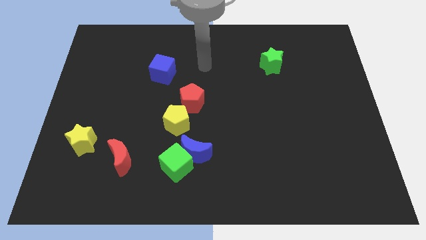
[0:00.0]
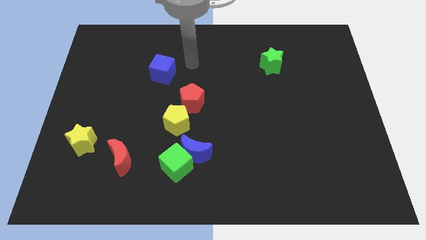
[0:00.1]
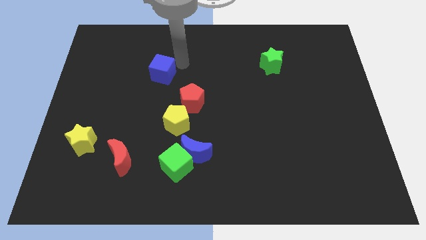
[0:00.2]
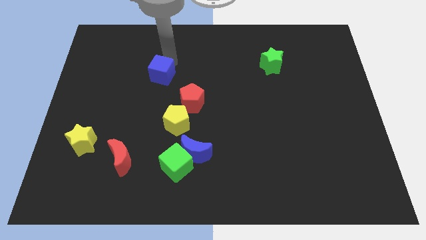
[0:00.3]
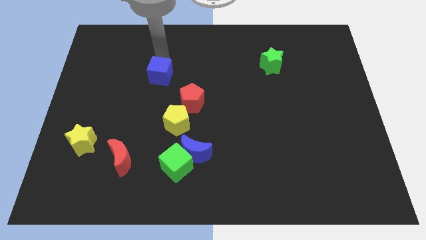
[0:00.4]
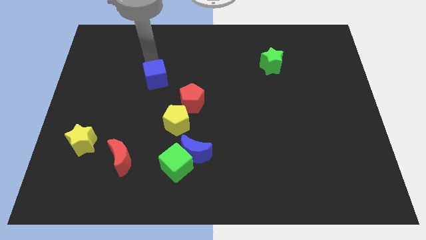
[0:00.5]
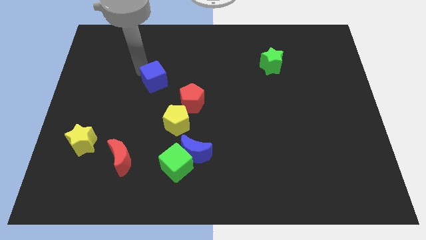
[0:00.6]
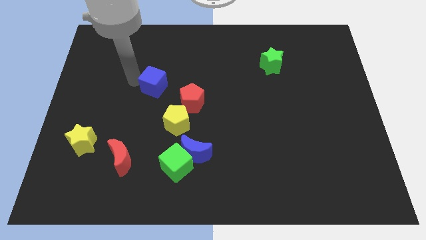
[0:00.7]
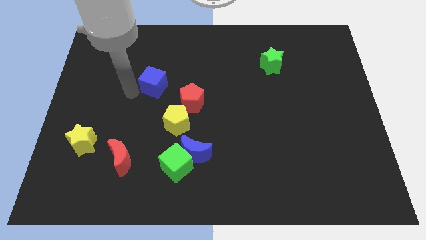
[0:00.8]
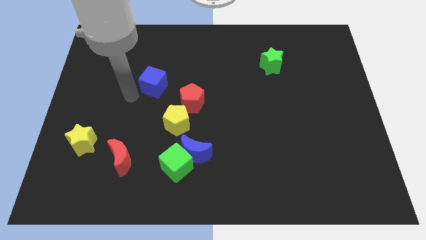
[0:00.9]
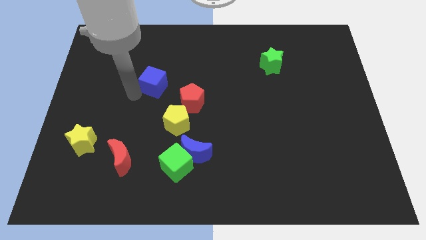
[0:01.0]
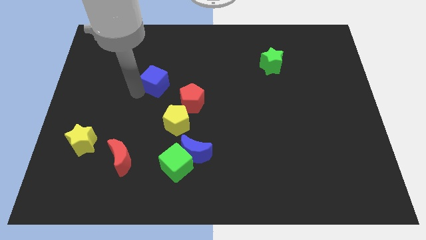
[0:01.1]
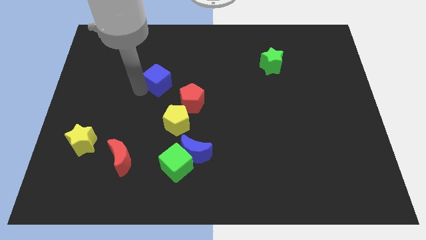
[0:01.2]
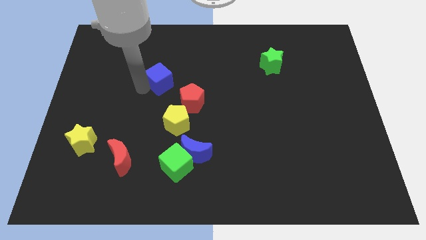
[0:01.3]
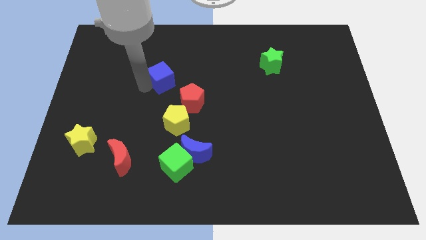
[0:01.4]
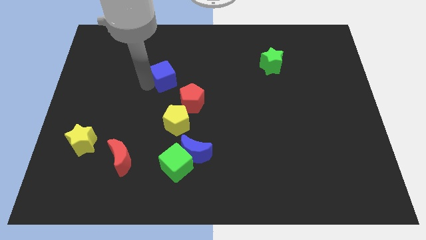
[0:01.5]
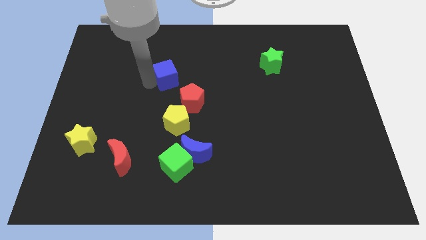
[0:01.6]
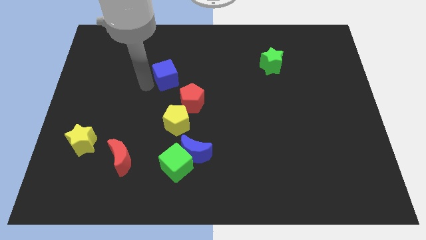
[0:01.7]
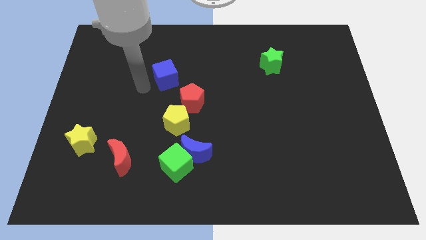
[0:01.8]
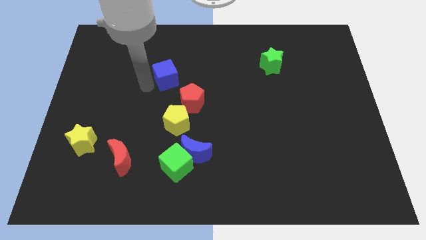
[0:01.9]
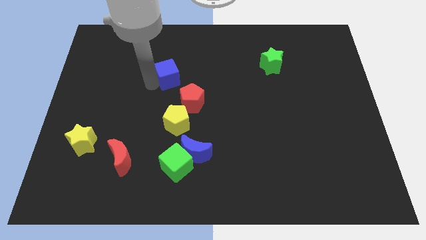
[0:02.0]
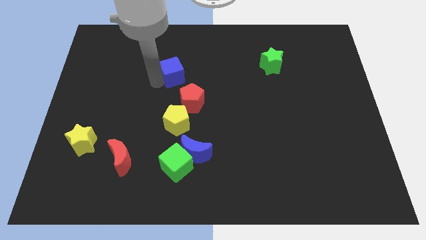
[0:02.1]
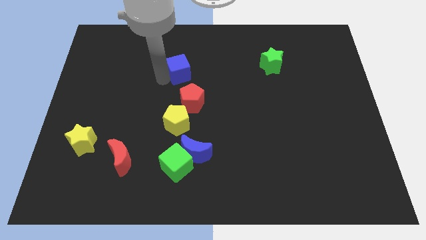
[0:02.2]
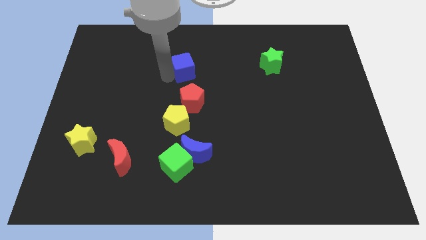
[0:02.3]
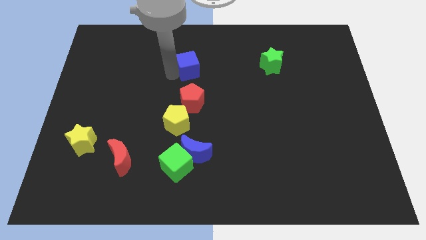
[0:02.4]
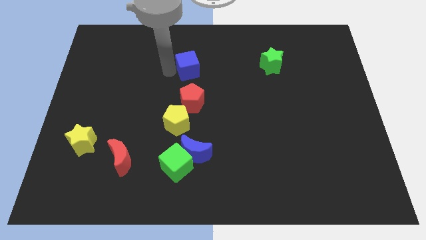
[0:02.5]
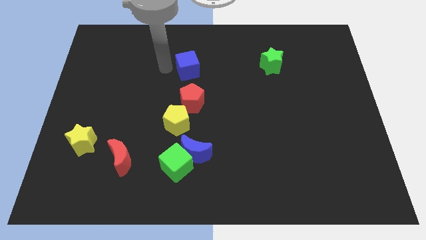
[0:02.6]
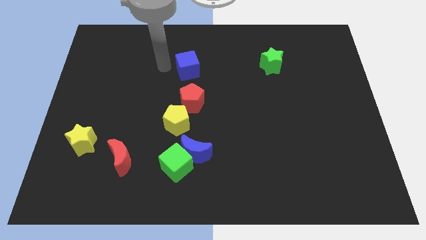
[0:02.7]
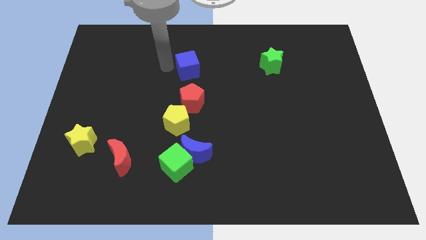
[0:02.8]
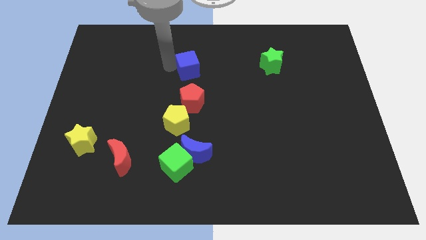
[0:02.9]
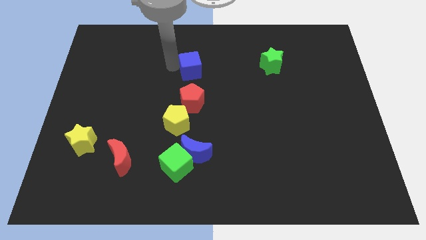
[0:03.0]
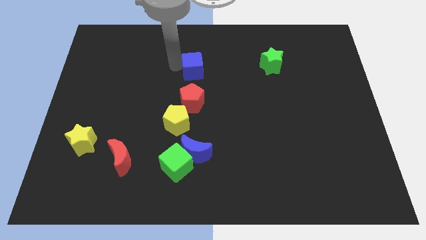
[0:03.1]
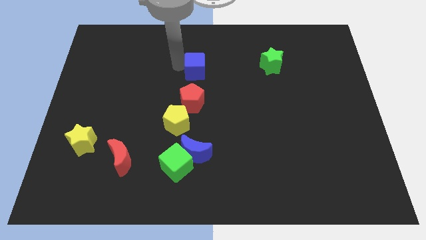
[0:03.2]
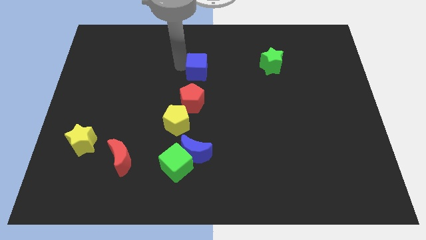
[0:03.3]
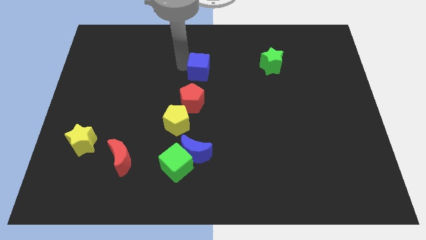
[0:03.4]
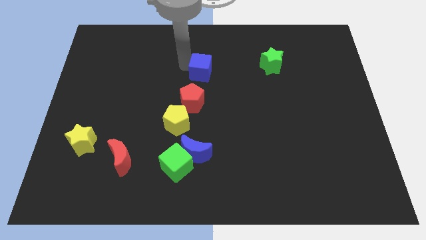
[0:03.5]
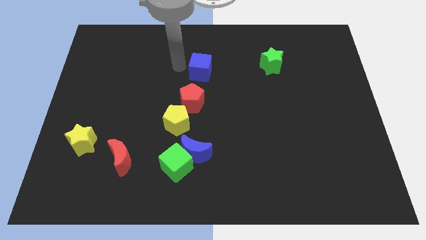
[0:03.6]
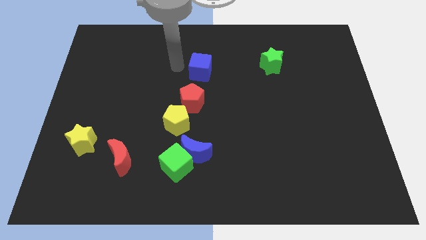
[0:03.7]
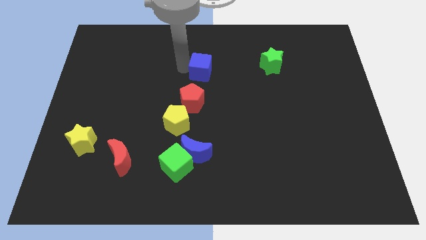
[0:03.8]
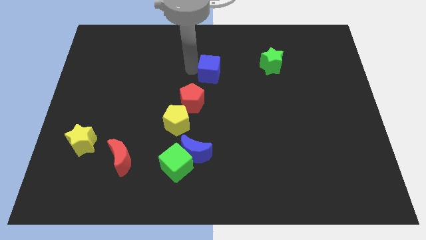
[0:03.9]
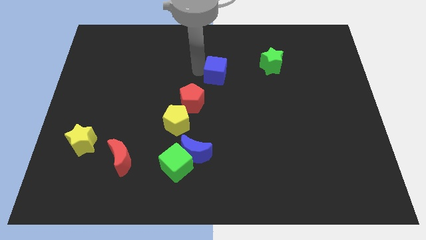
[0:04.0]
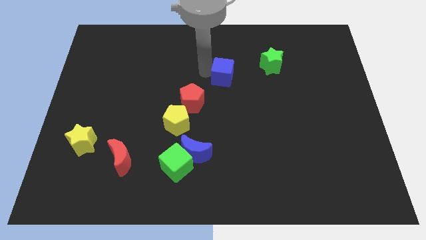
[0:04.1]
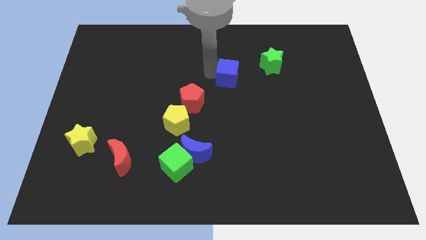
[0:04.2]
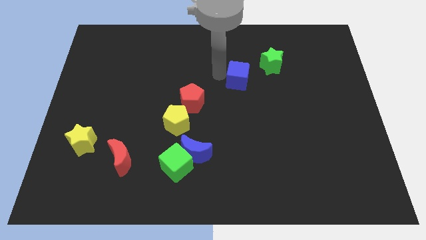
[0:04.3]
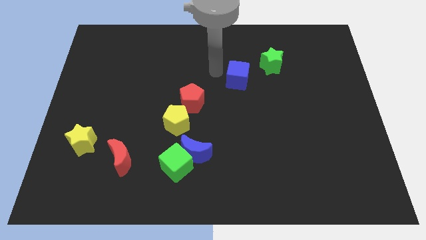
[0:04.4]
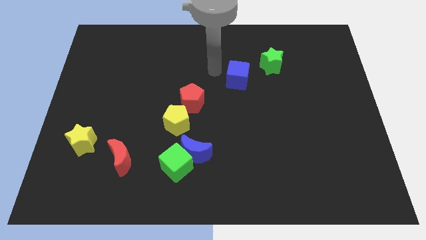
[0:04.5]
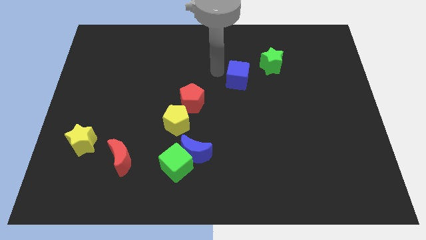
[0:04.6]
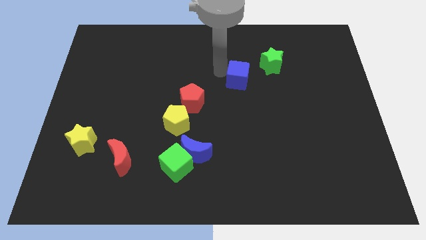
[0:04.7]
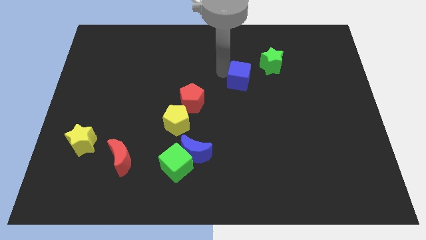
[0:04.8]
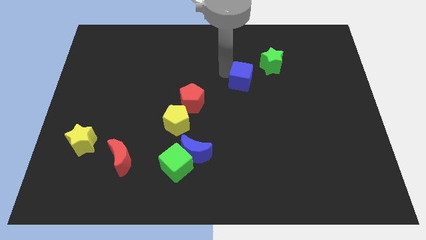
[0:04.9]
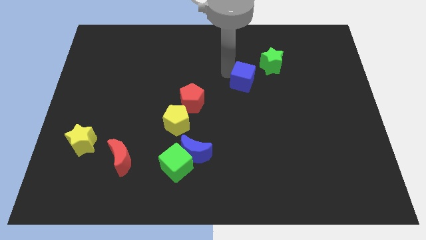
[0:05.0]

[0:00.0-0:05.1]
slide the blue cube right

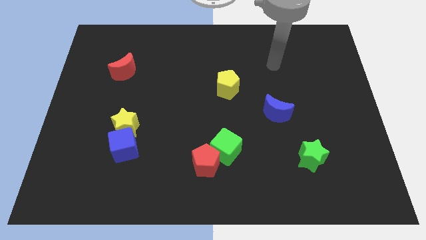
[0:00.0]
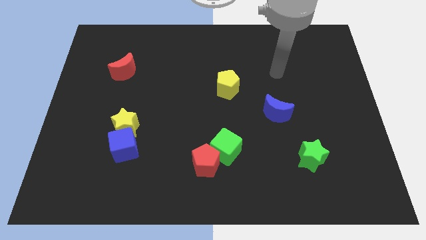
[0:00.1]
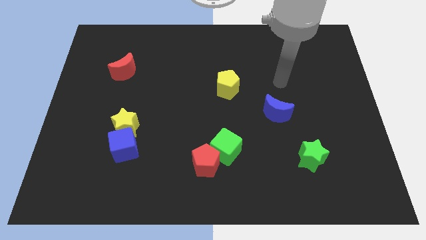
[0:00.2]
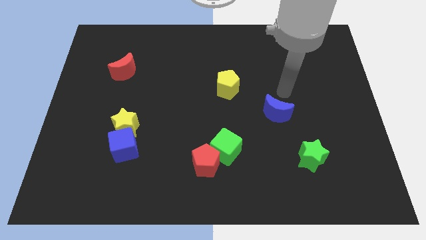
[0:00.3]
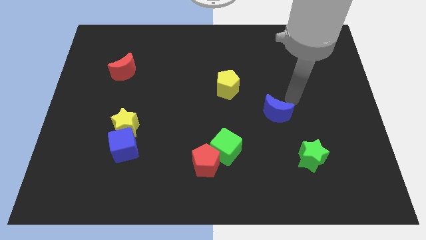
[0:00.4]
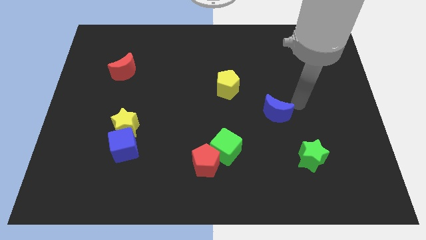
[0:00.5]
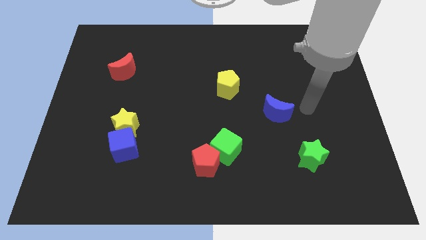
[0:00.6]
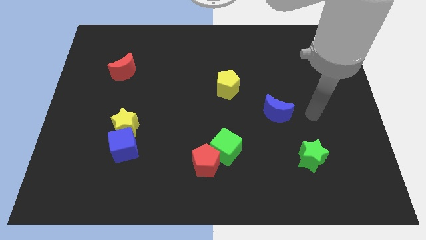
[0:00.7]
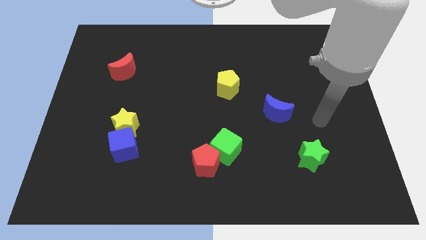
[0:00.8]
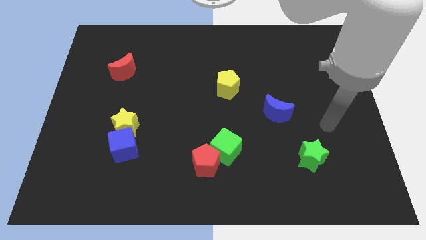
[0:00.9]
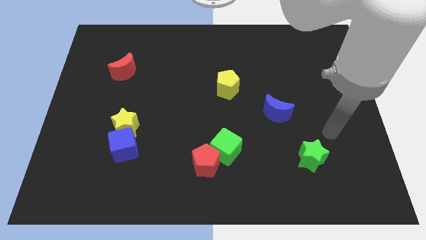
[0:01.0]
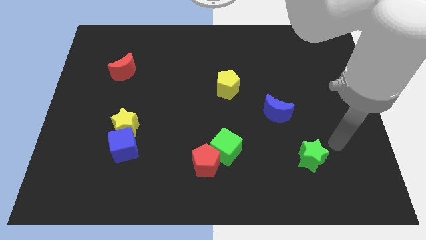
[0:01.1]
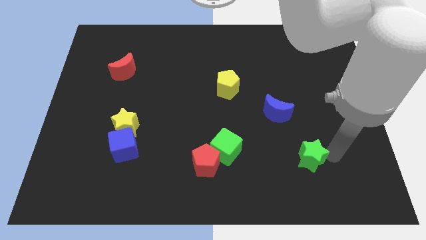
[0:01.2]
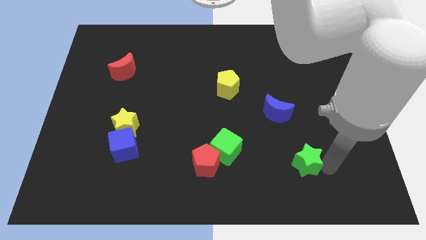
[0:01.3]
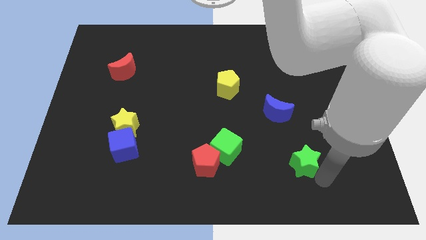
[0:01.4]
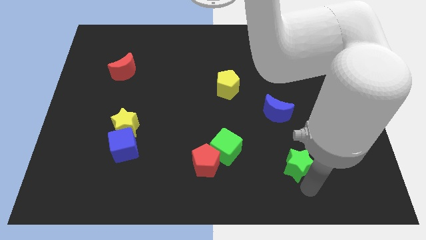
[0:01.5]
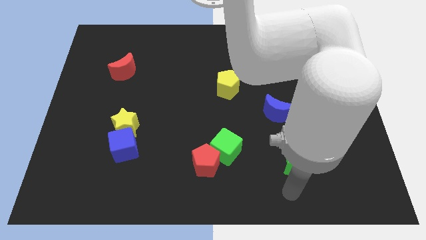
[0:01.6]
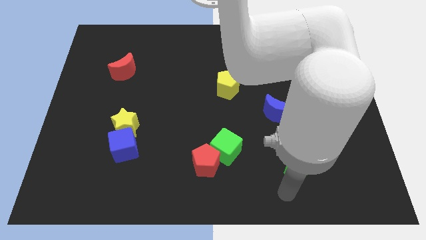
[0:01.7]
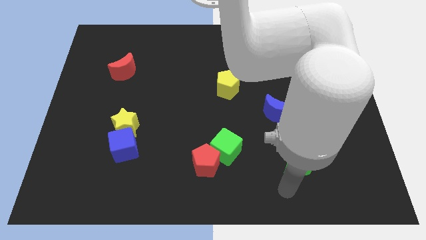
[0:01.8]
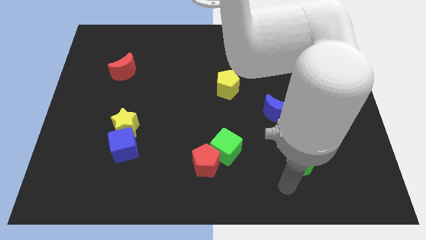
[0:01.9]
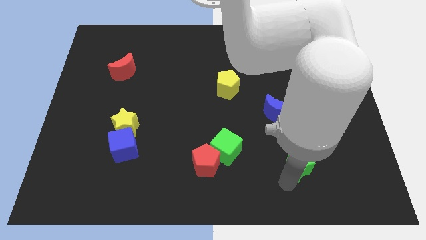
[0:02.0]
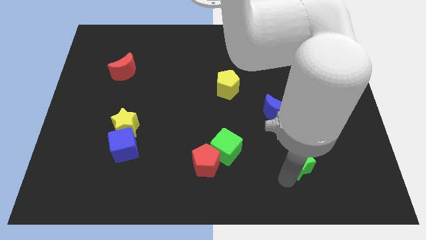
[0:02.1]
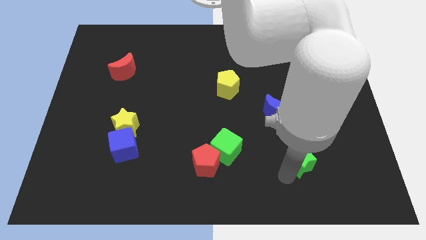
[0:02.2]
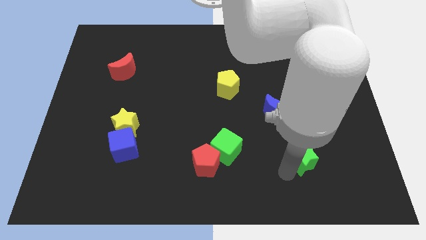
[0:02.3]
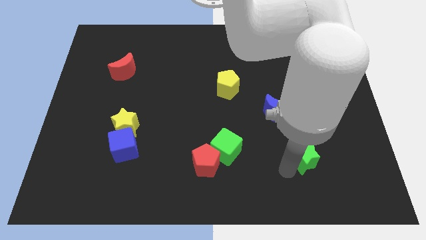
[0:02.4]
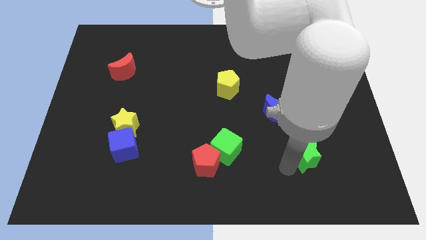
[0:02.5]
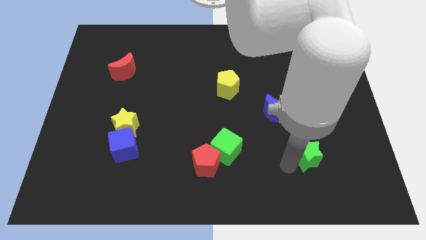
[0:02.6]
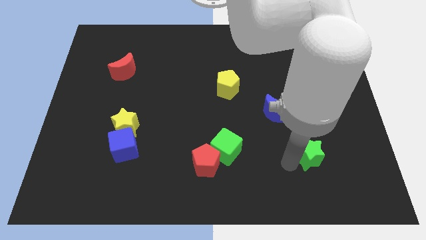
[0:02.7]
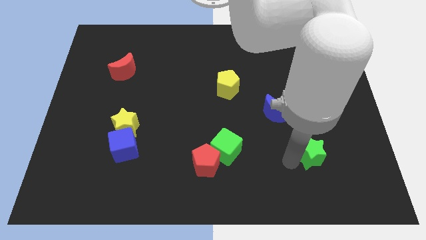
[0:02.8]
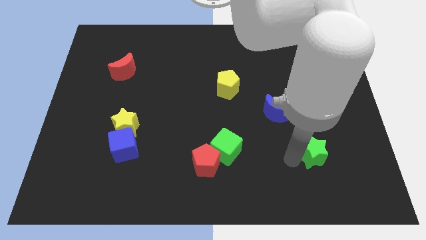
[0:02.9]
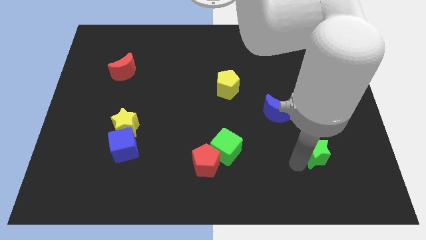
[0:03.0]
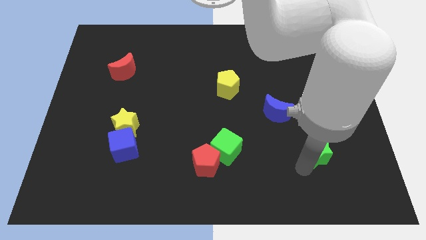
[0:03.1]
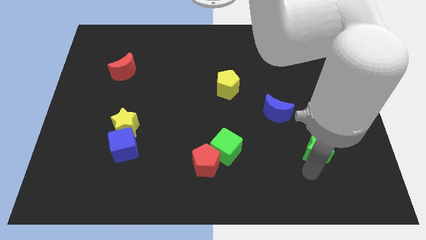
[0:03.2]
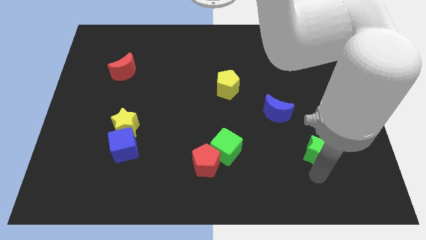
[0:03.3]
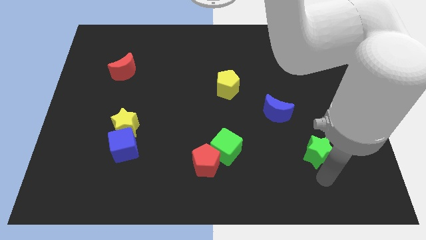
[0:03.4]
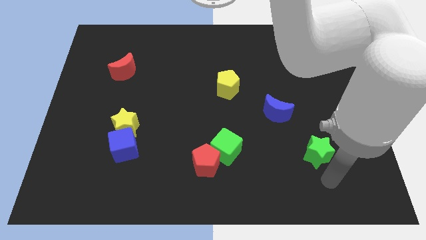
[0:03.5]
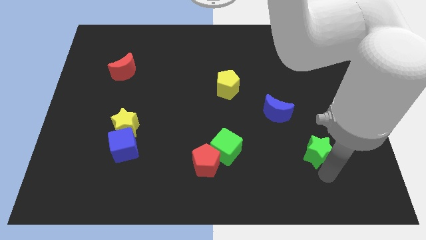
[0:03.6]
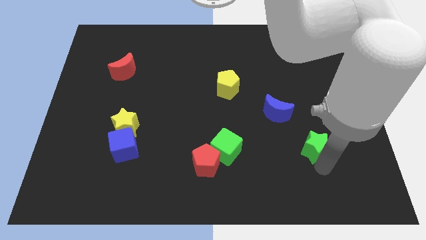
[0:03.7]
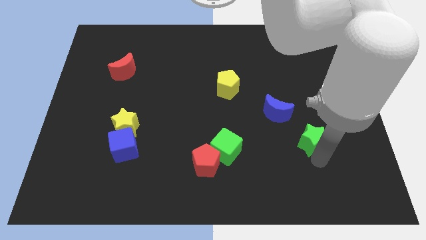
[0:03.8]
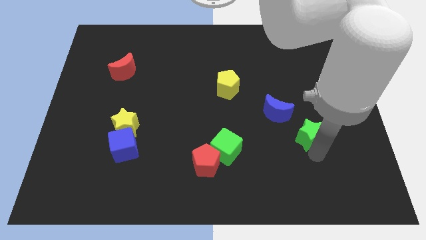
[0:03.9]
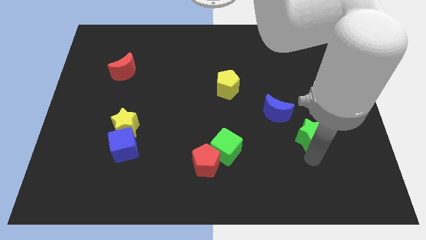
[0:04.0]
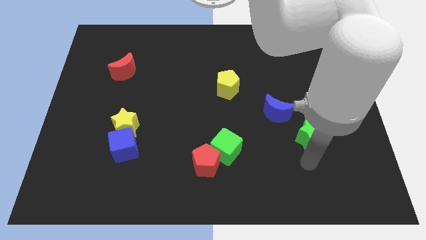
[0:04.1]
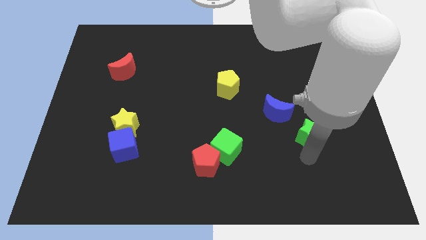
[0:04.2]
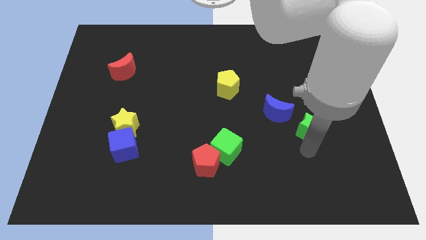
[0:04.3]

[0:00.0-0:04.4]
push the green star slightly upwards
